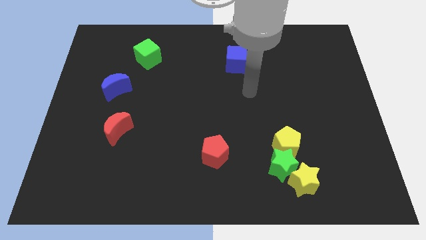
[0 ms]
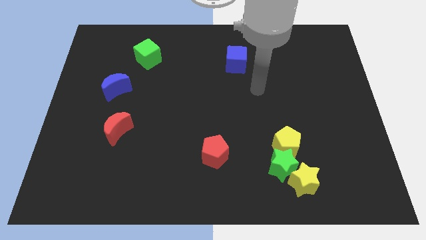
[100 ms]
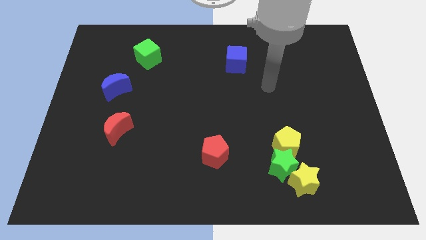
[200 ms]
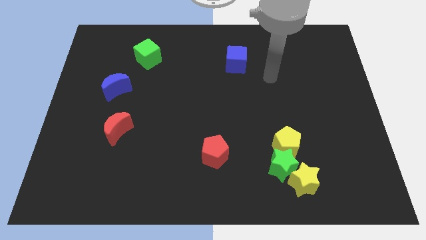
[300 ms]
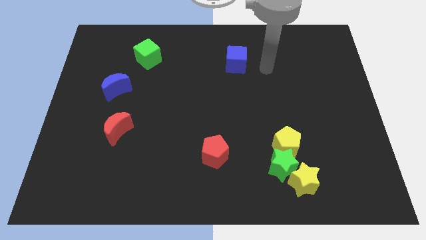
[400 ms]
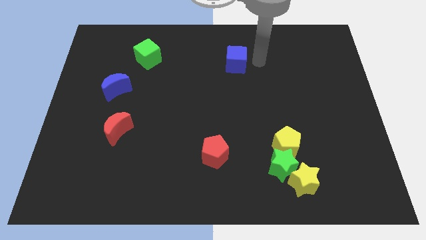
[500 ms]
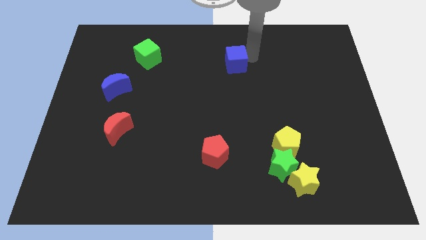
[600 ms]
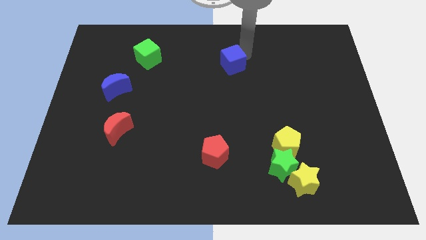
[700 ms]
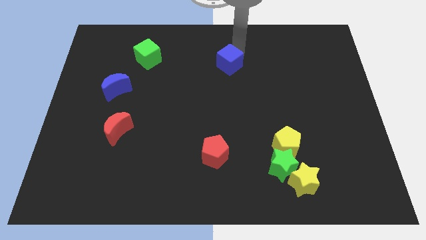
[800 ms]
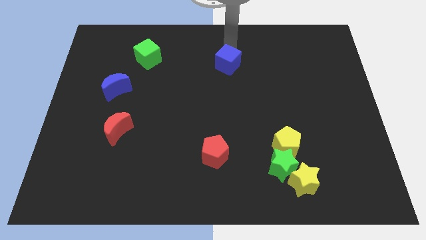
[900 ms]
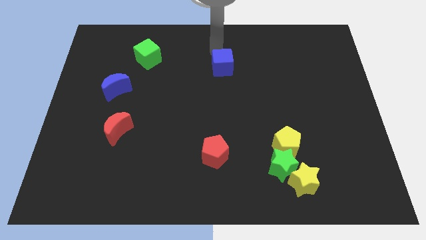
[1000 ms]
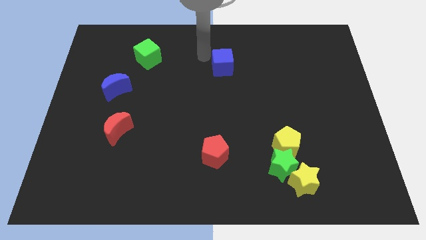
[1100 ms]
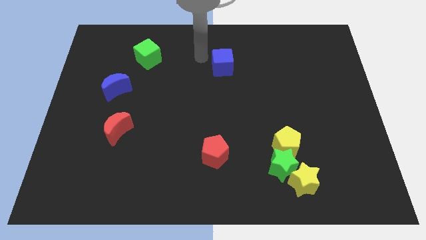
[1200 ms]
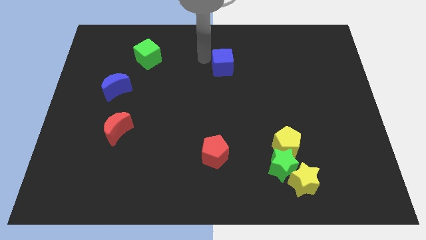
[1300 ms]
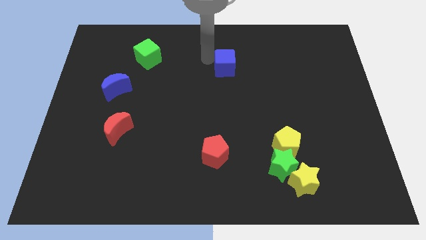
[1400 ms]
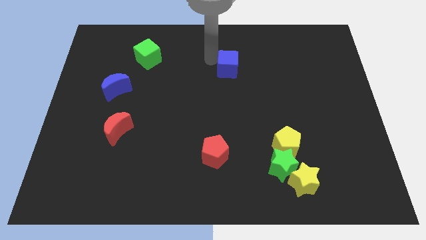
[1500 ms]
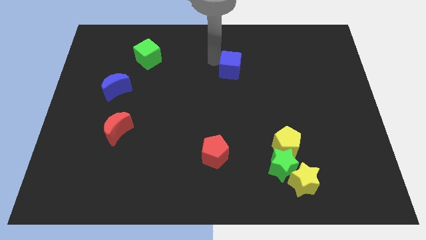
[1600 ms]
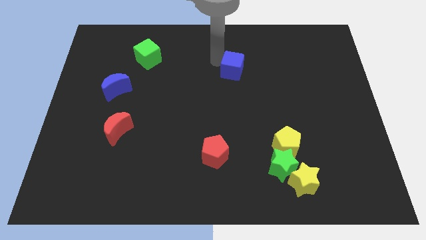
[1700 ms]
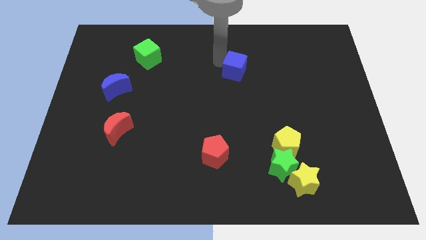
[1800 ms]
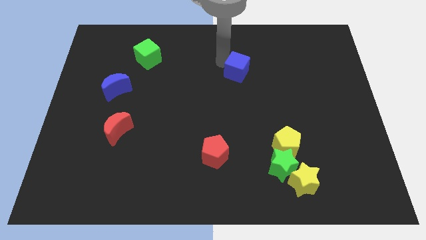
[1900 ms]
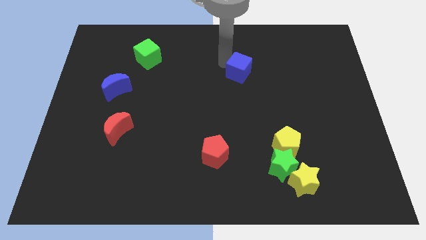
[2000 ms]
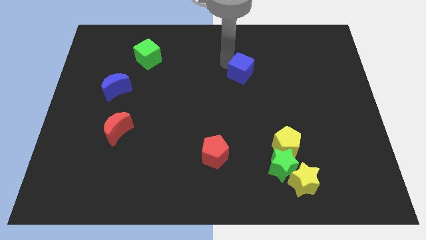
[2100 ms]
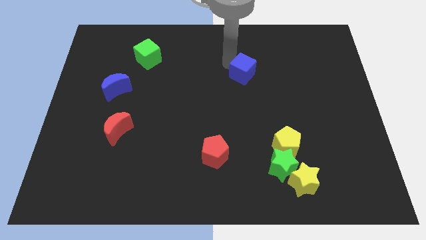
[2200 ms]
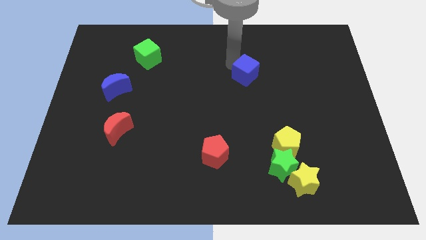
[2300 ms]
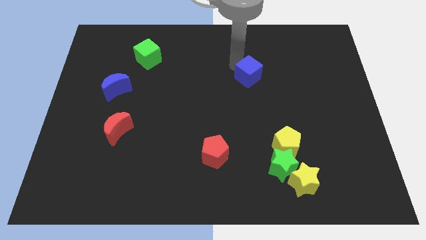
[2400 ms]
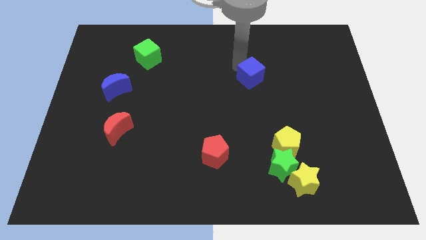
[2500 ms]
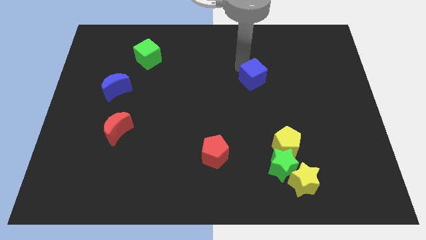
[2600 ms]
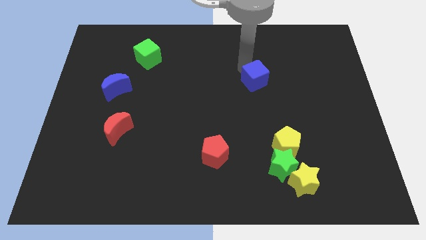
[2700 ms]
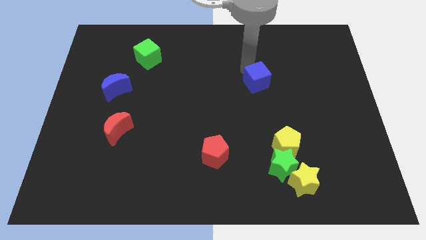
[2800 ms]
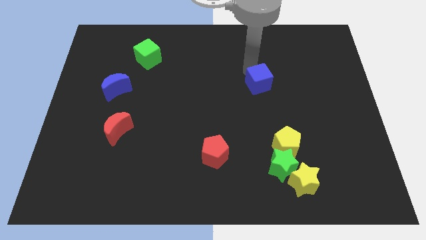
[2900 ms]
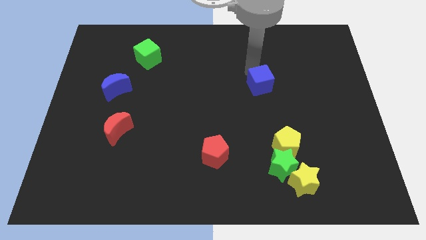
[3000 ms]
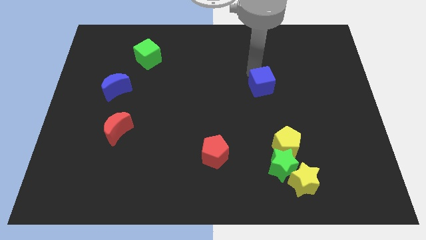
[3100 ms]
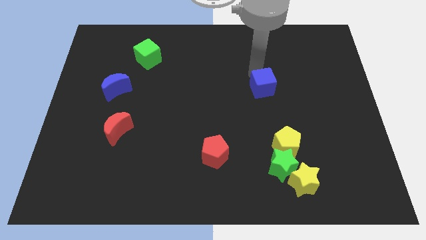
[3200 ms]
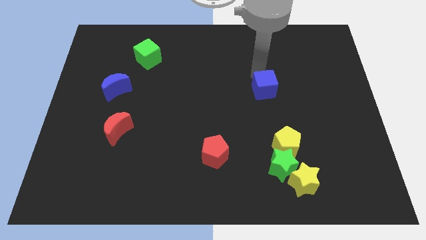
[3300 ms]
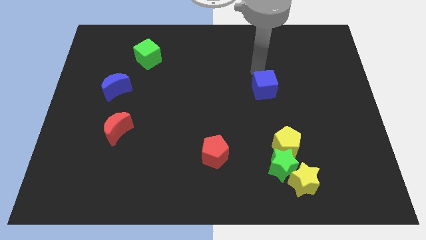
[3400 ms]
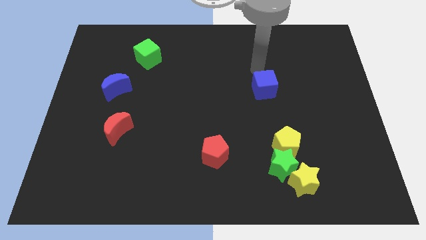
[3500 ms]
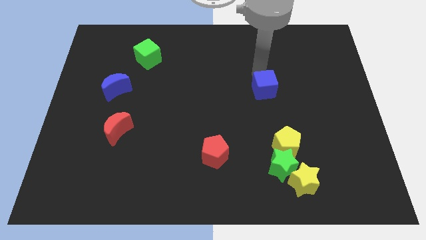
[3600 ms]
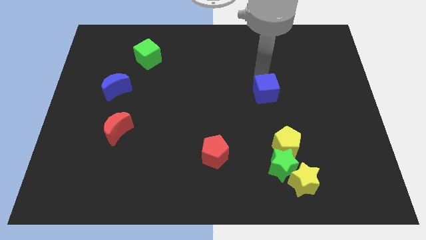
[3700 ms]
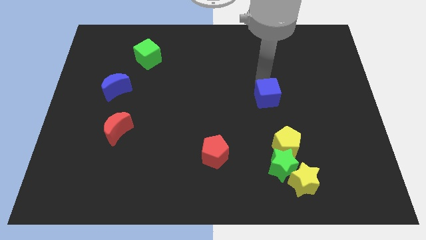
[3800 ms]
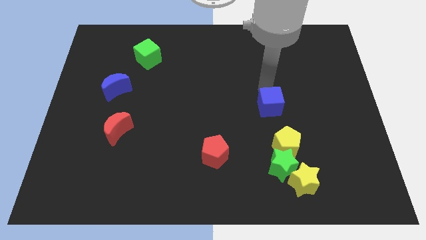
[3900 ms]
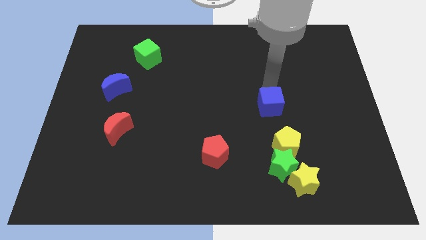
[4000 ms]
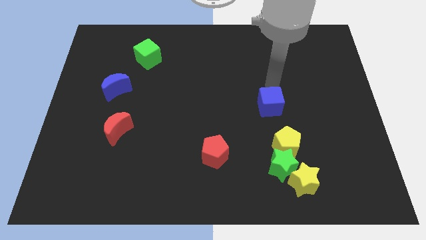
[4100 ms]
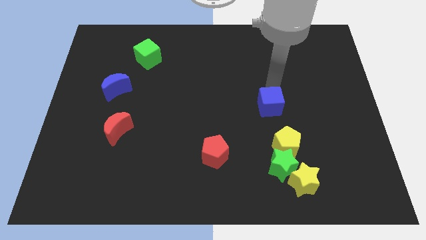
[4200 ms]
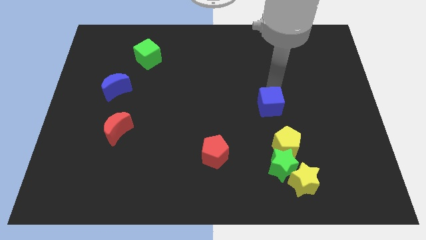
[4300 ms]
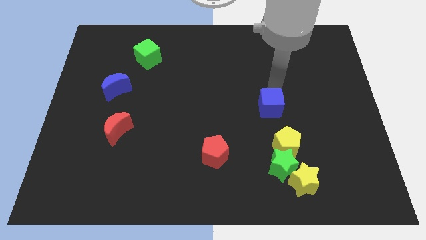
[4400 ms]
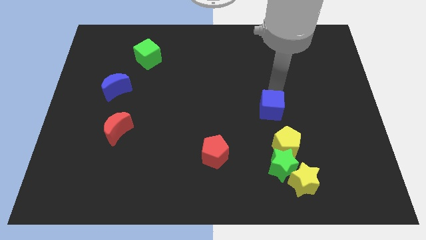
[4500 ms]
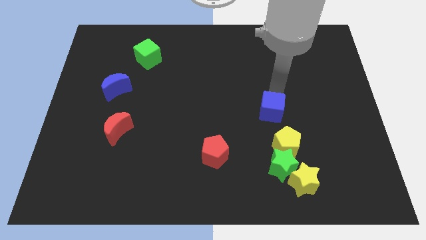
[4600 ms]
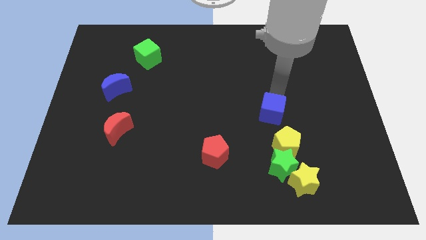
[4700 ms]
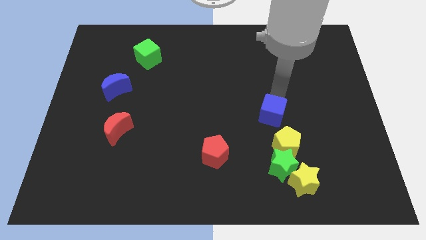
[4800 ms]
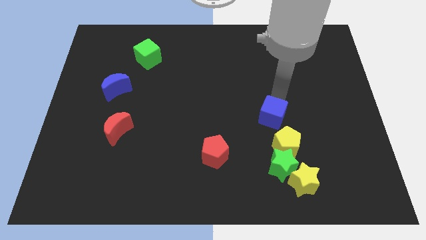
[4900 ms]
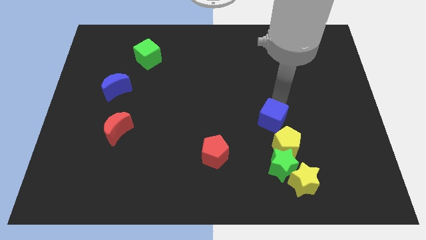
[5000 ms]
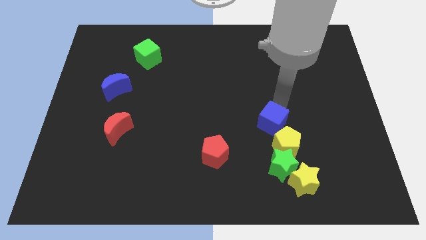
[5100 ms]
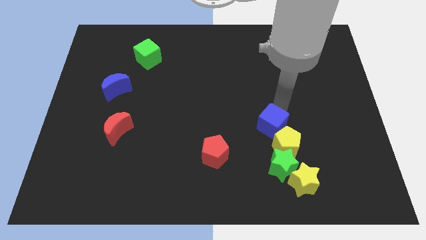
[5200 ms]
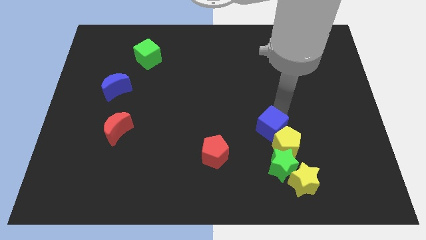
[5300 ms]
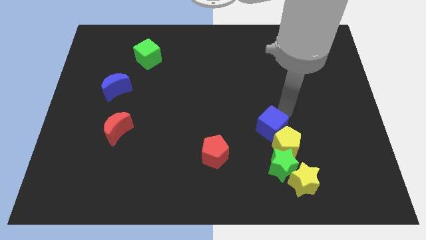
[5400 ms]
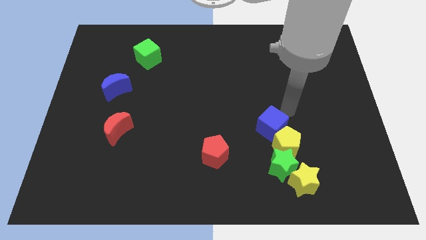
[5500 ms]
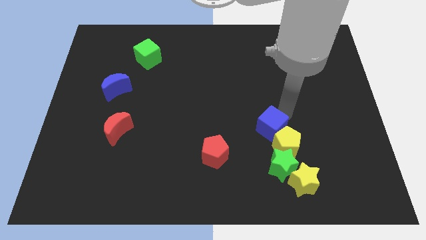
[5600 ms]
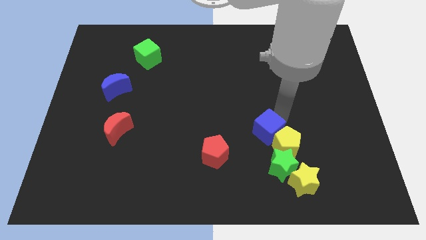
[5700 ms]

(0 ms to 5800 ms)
slide the blue cube downwards

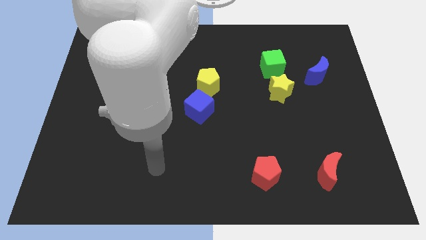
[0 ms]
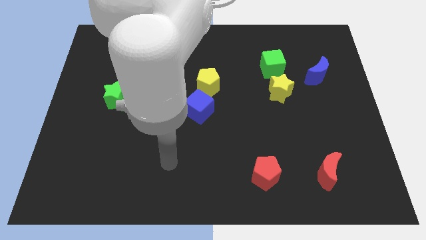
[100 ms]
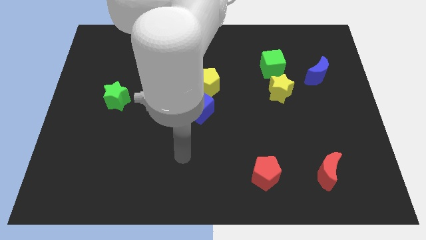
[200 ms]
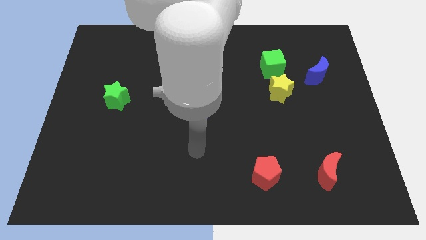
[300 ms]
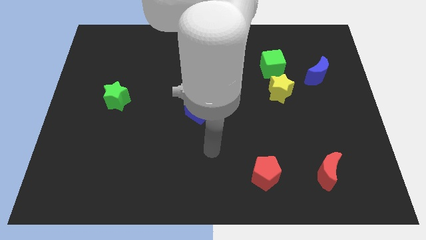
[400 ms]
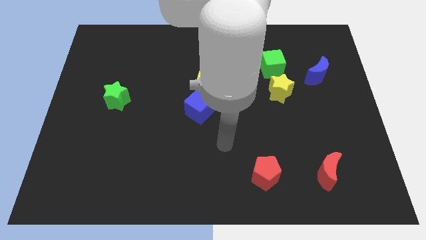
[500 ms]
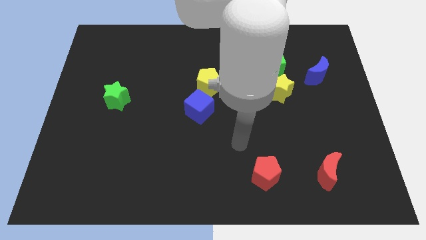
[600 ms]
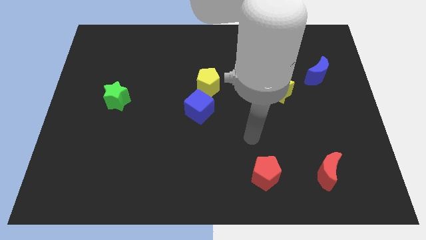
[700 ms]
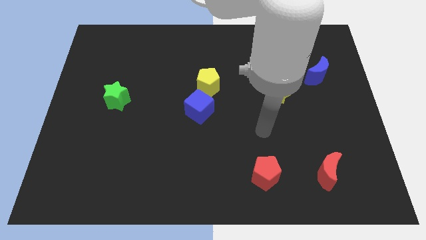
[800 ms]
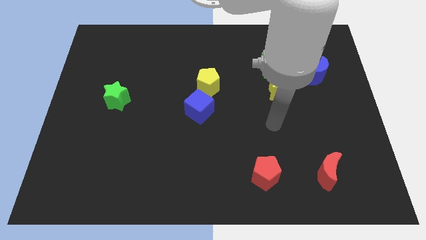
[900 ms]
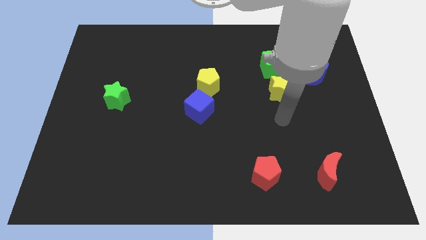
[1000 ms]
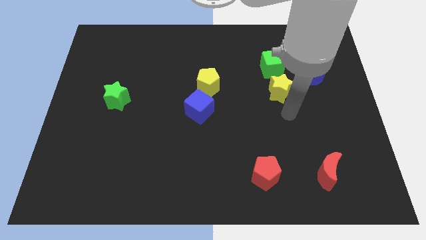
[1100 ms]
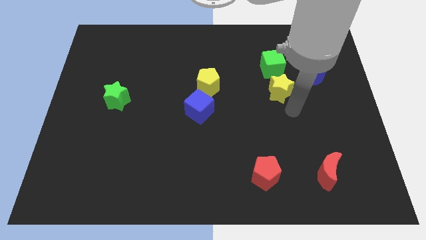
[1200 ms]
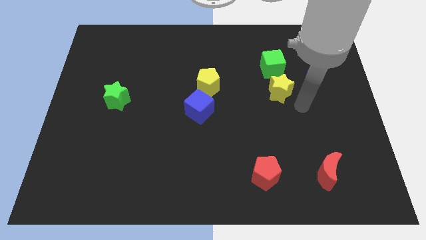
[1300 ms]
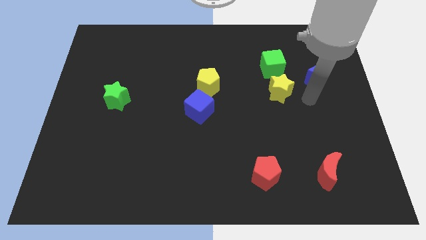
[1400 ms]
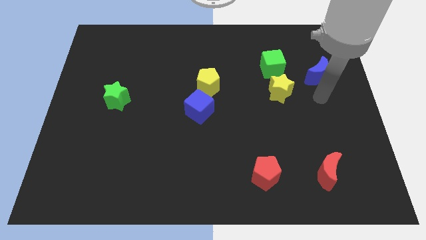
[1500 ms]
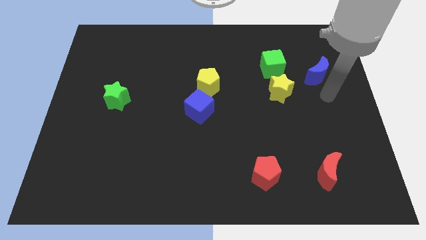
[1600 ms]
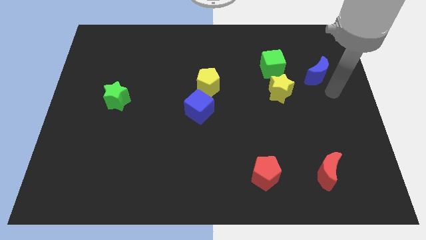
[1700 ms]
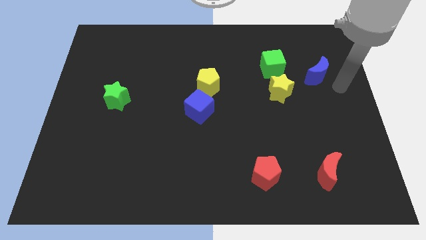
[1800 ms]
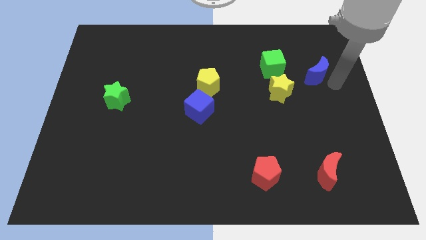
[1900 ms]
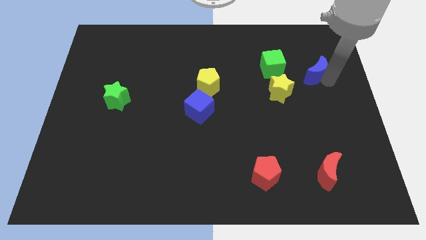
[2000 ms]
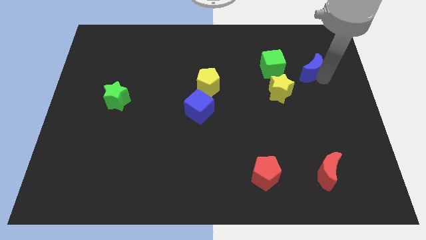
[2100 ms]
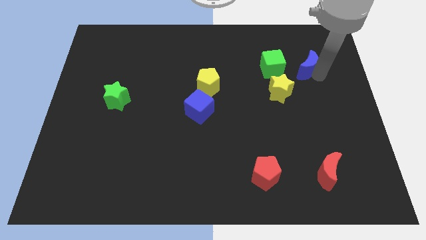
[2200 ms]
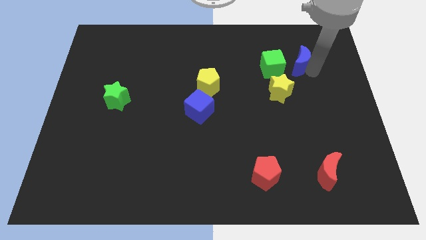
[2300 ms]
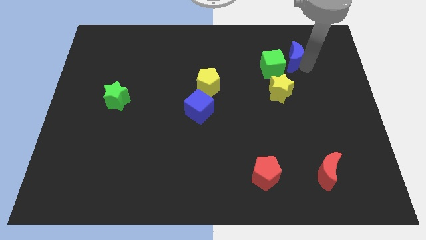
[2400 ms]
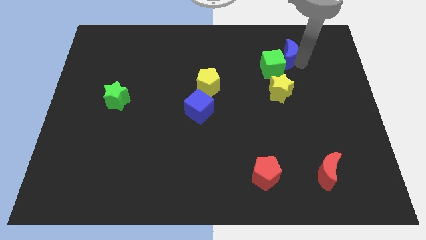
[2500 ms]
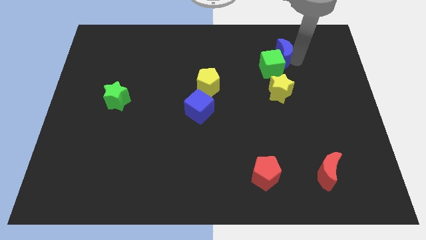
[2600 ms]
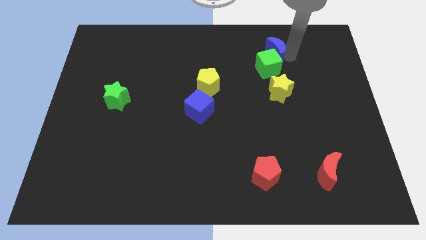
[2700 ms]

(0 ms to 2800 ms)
slide the blue moon a little bit to the left
